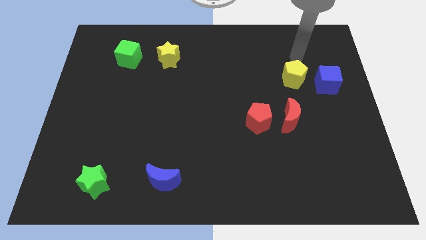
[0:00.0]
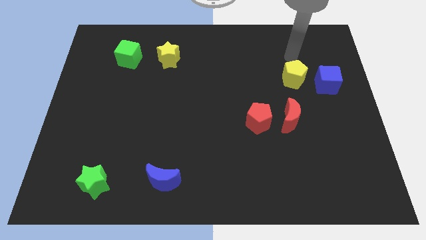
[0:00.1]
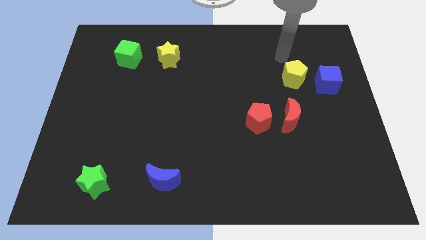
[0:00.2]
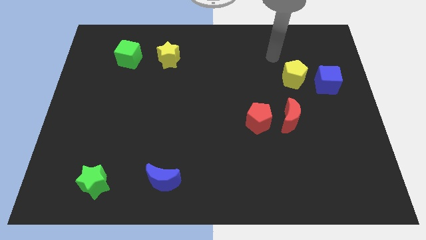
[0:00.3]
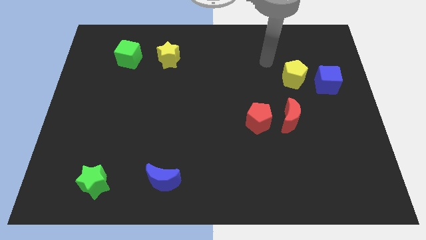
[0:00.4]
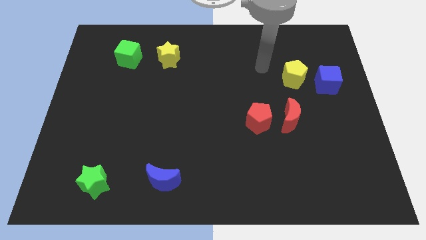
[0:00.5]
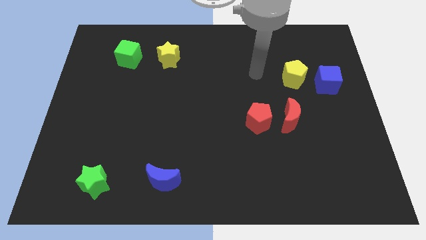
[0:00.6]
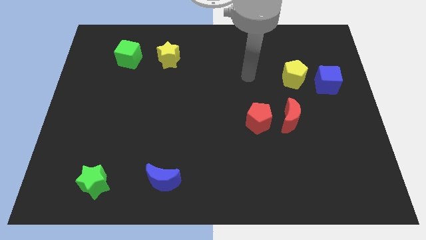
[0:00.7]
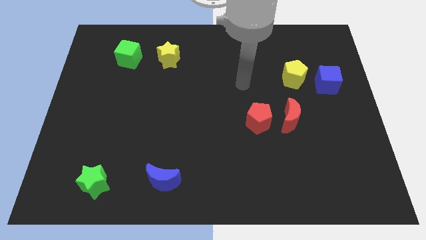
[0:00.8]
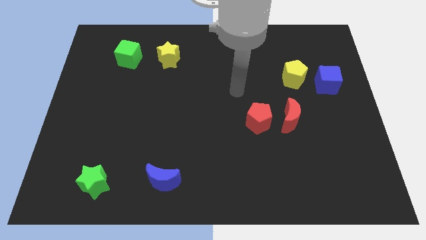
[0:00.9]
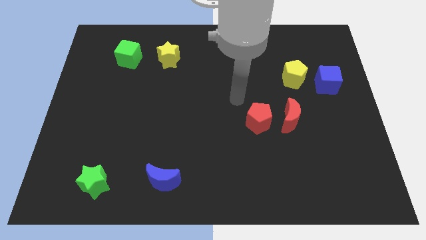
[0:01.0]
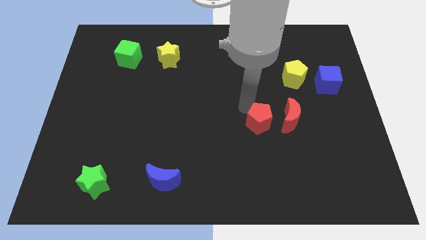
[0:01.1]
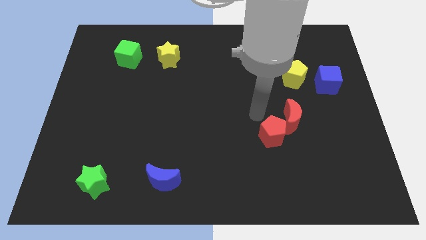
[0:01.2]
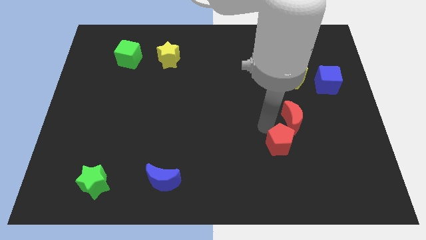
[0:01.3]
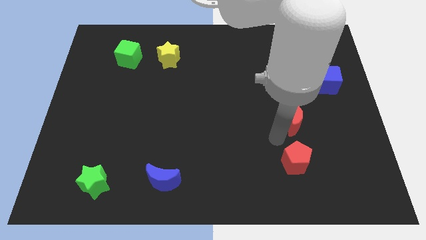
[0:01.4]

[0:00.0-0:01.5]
separate the red moon from the red pentagon

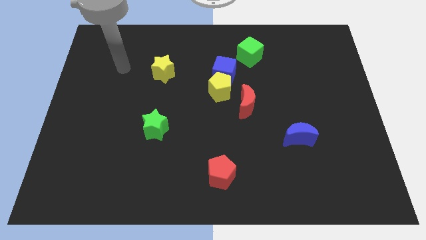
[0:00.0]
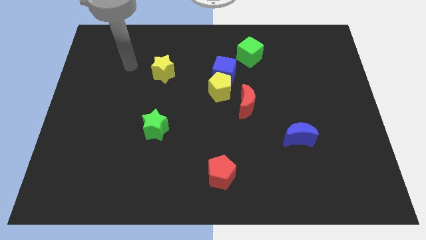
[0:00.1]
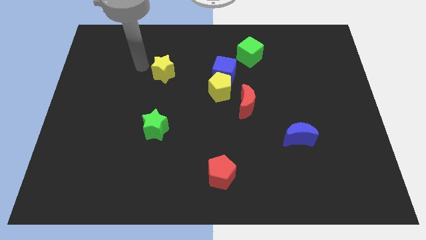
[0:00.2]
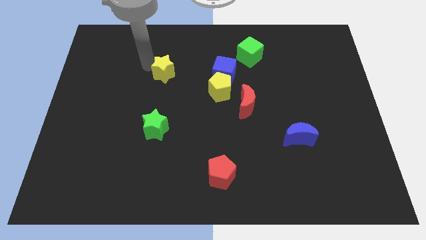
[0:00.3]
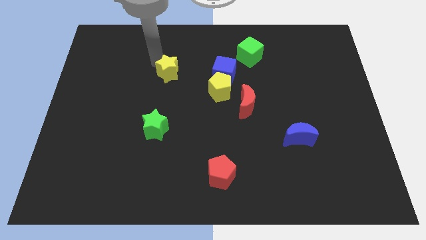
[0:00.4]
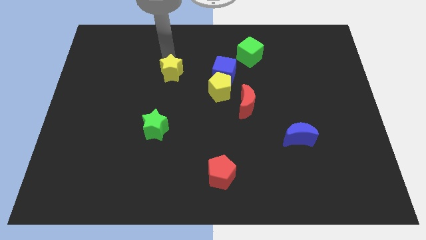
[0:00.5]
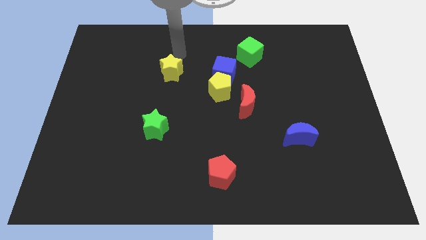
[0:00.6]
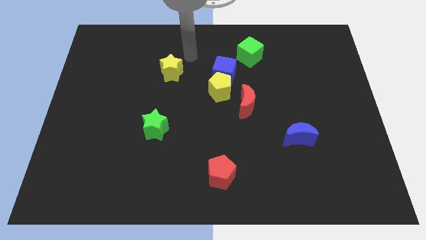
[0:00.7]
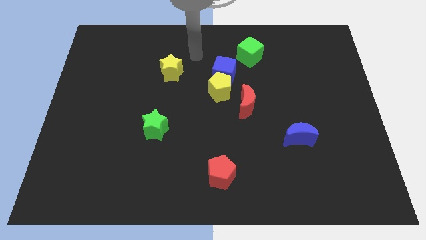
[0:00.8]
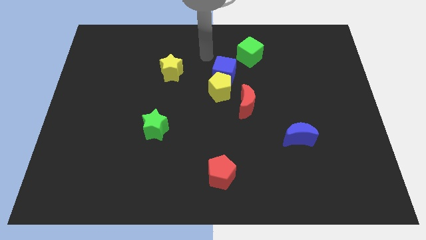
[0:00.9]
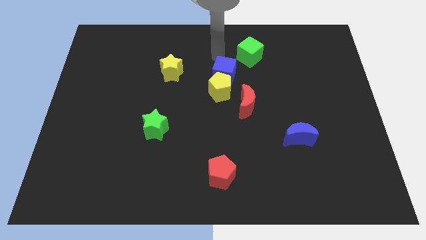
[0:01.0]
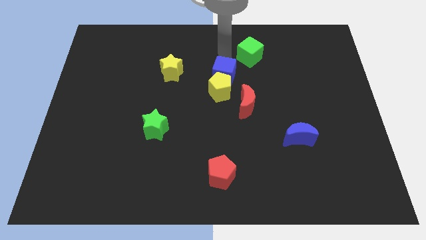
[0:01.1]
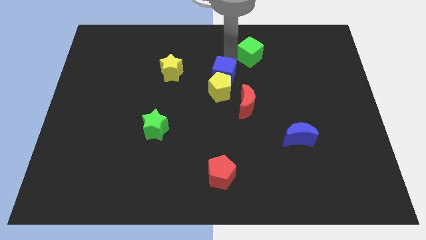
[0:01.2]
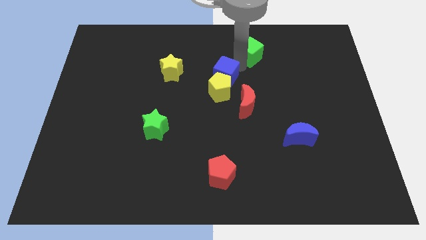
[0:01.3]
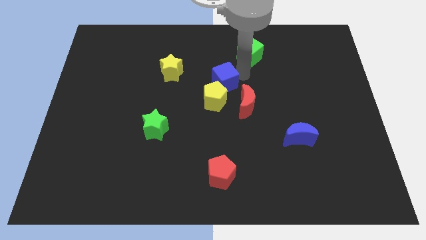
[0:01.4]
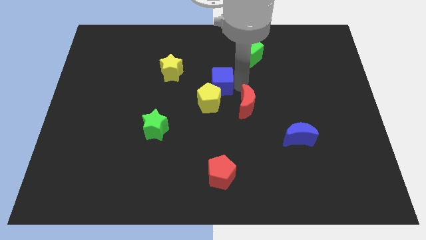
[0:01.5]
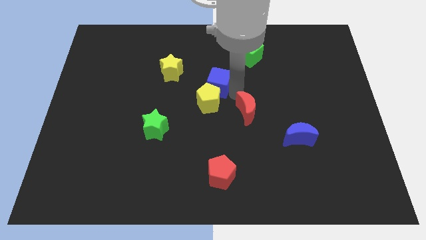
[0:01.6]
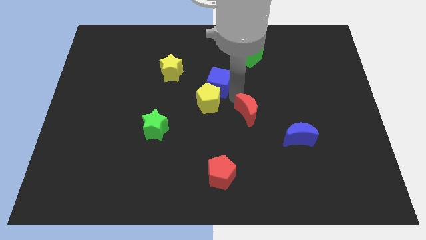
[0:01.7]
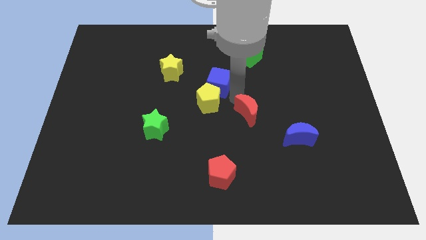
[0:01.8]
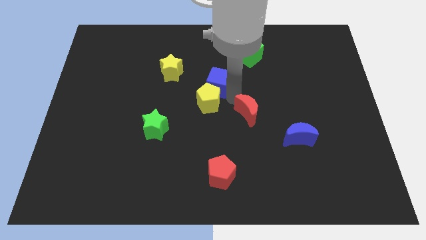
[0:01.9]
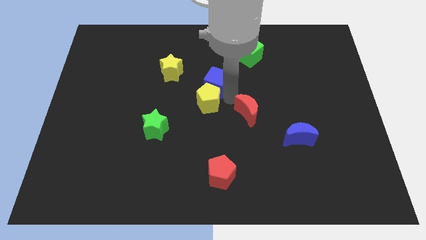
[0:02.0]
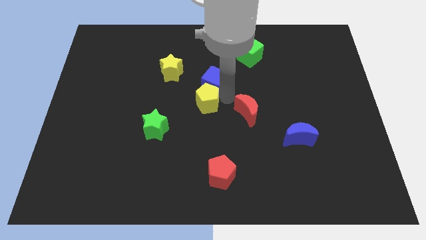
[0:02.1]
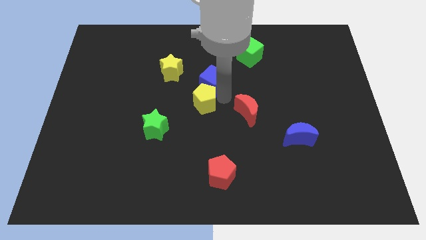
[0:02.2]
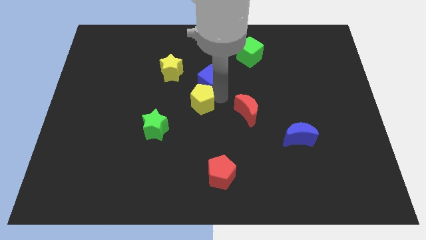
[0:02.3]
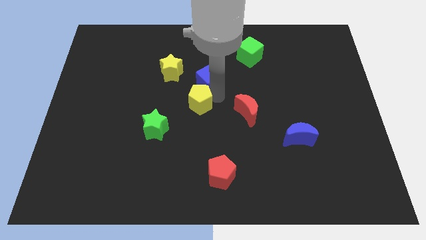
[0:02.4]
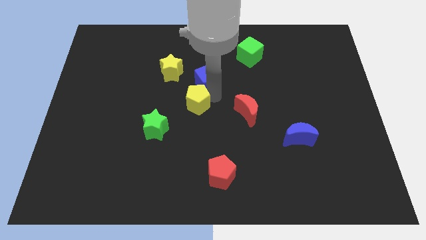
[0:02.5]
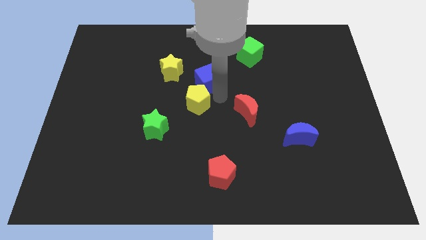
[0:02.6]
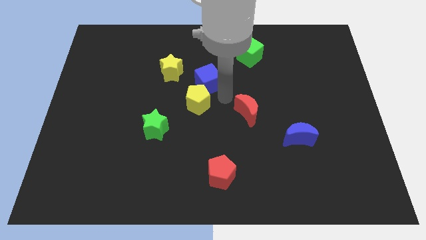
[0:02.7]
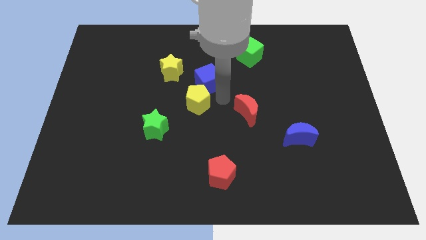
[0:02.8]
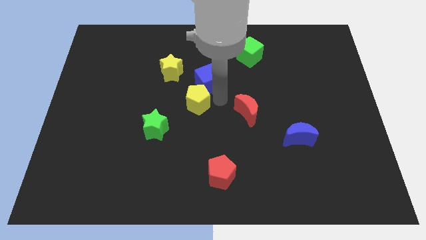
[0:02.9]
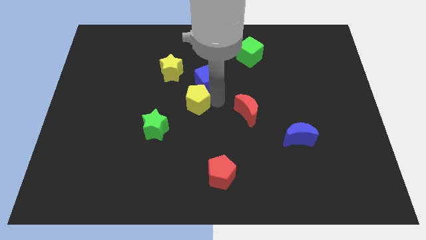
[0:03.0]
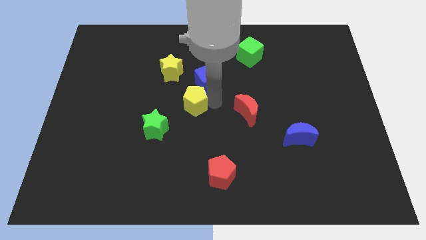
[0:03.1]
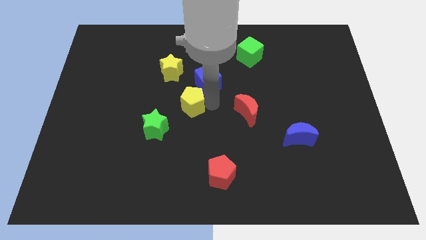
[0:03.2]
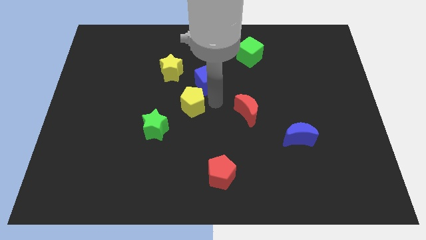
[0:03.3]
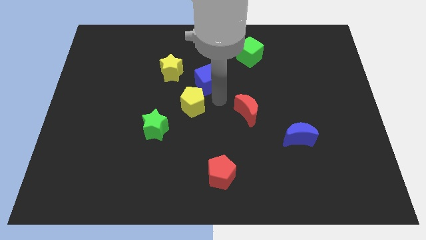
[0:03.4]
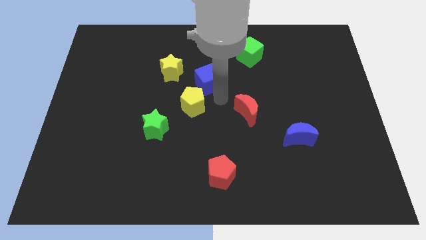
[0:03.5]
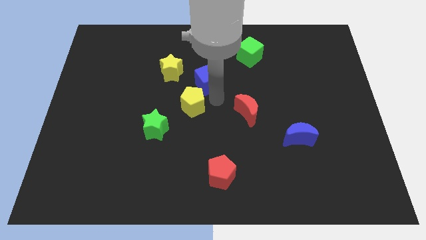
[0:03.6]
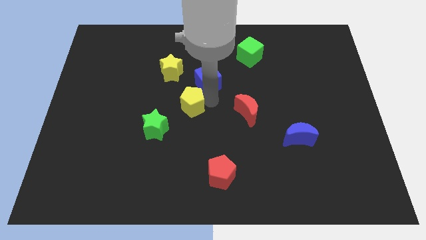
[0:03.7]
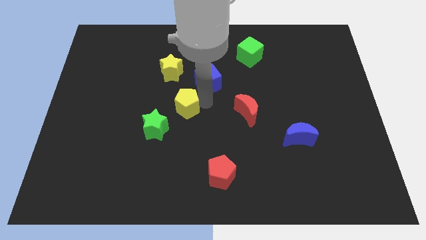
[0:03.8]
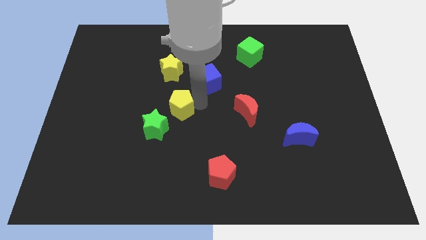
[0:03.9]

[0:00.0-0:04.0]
move the yellow pentagon away from the blue cube and red moon

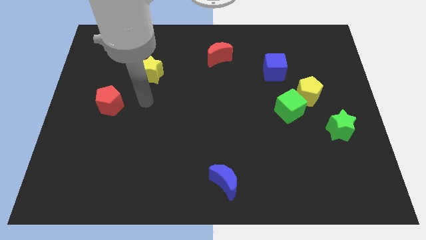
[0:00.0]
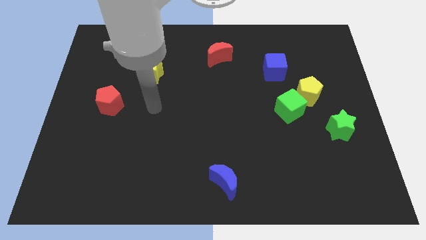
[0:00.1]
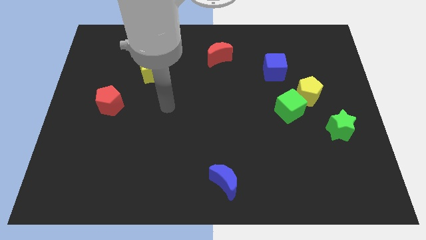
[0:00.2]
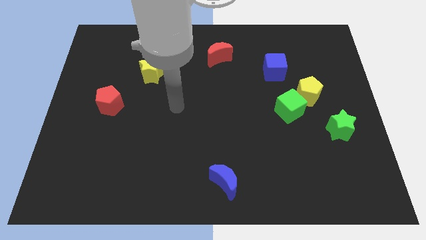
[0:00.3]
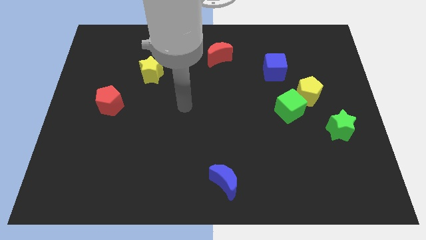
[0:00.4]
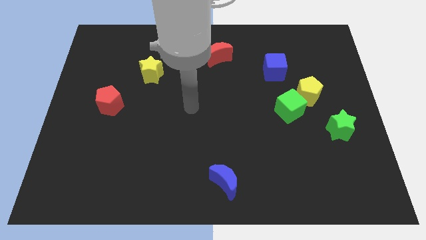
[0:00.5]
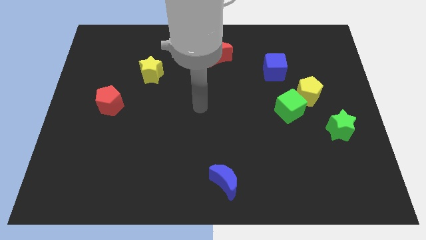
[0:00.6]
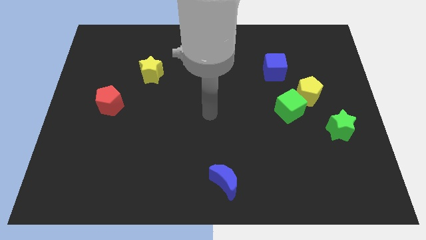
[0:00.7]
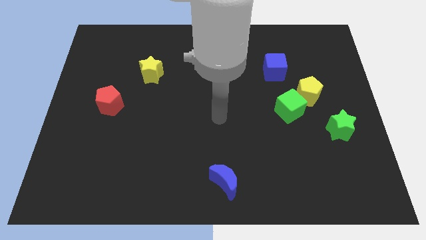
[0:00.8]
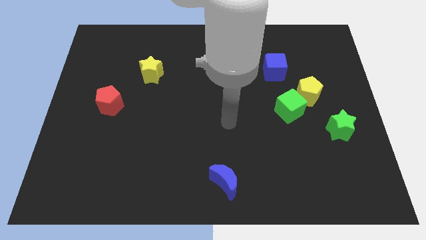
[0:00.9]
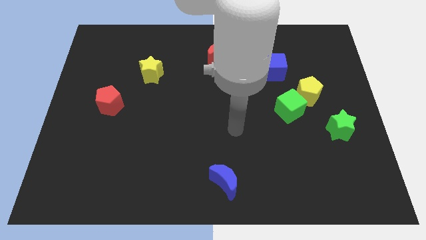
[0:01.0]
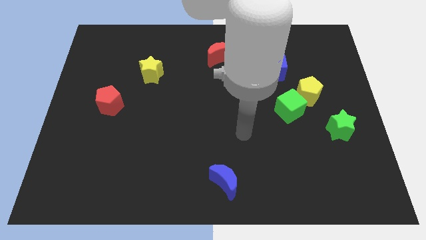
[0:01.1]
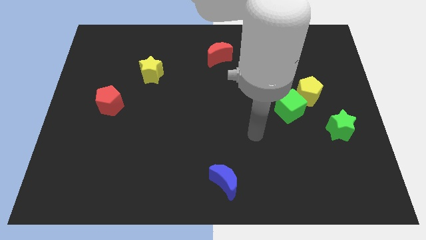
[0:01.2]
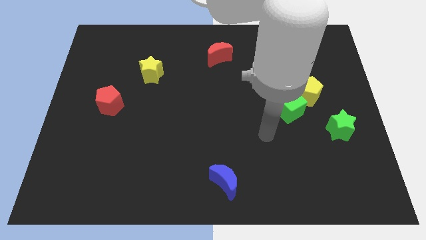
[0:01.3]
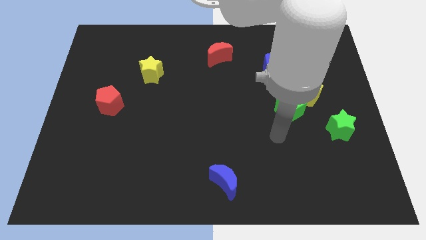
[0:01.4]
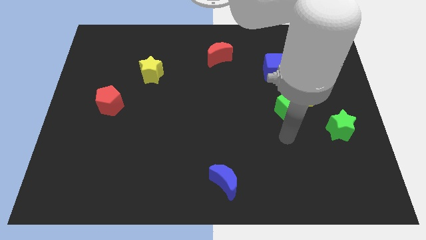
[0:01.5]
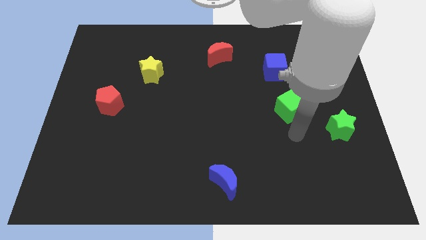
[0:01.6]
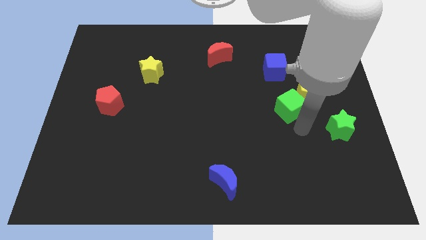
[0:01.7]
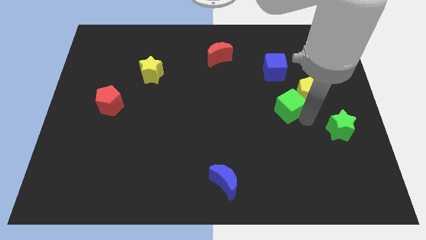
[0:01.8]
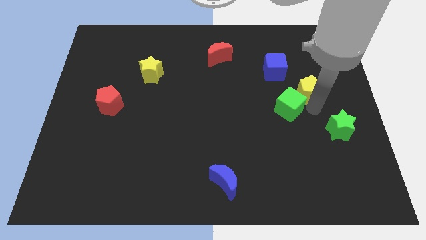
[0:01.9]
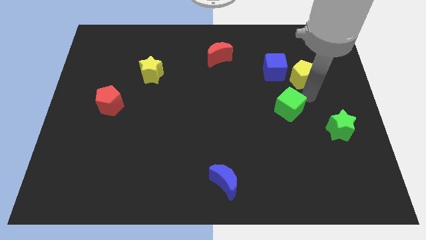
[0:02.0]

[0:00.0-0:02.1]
separate the green cube from the yellow pentagon

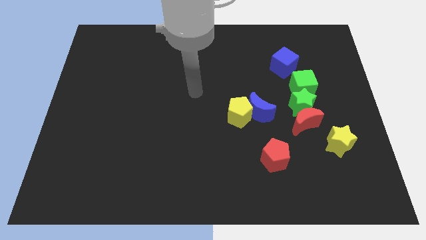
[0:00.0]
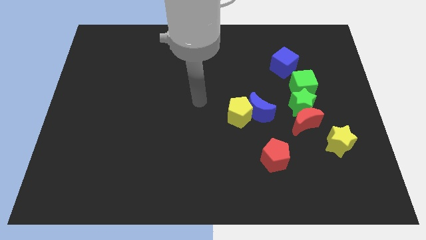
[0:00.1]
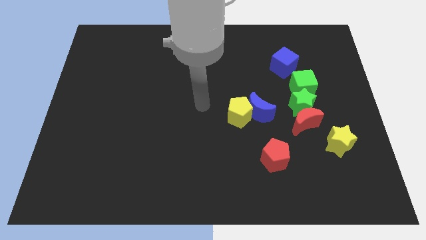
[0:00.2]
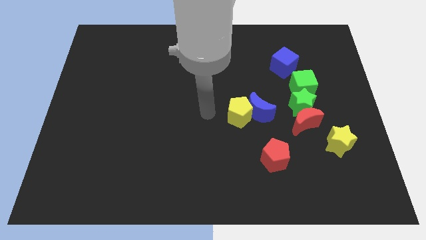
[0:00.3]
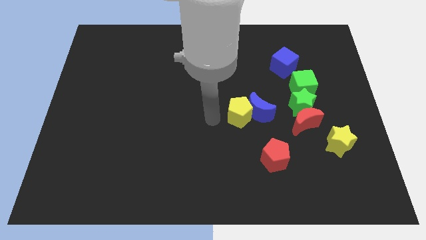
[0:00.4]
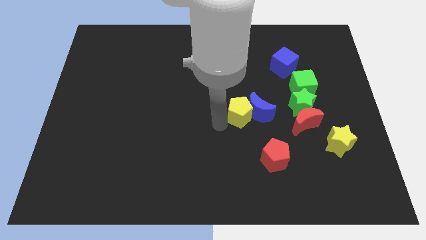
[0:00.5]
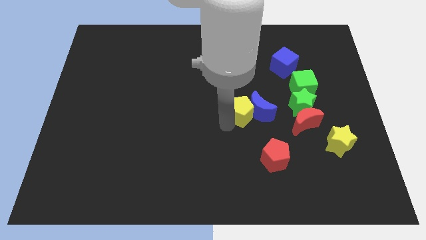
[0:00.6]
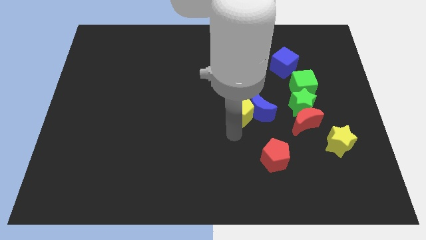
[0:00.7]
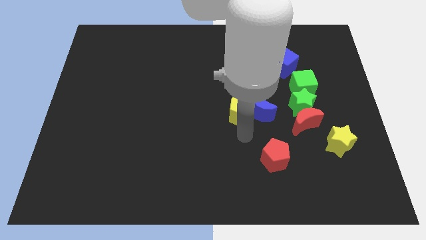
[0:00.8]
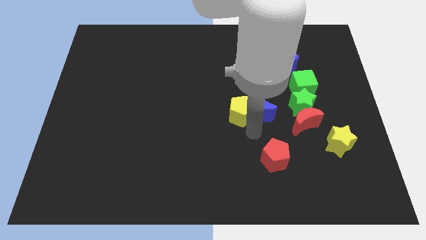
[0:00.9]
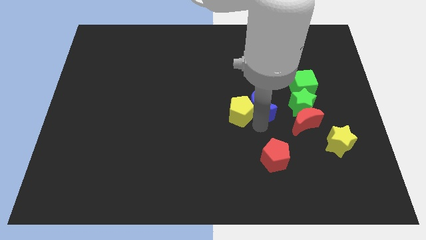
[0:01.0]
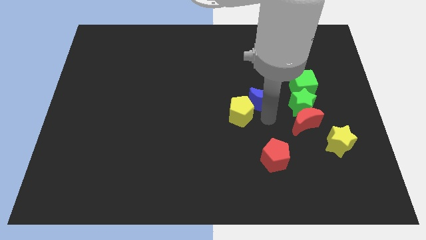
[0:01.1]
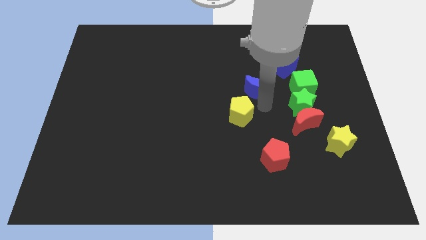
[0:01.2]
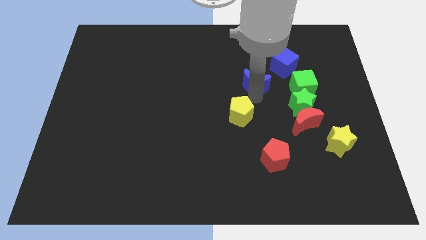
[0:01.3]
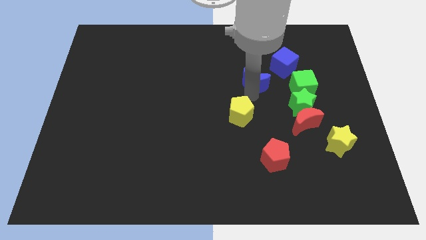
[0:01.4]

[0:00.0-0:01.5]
separate the yellow pentagon from the blue moon

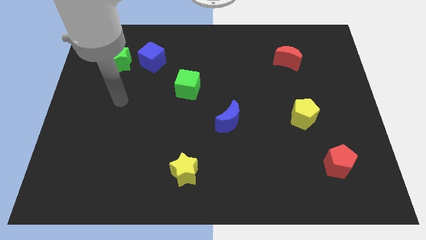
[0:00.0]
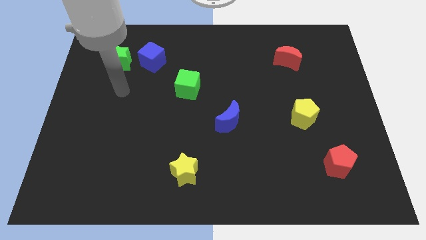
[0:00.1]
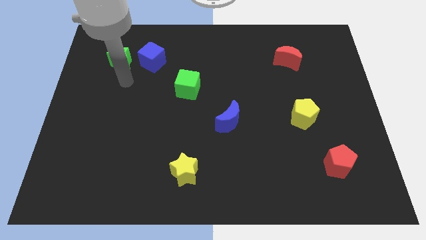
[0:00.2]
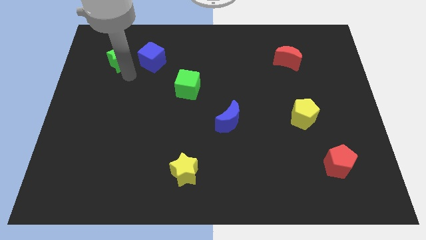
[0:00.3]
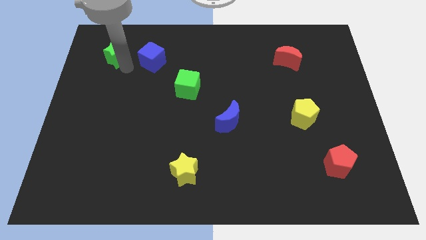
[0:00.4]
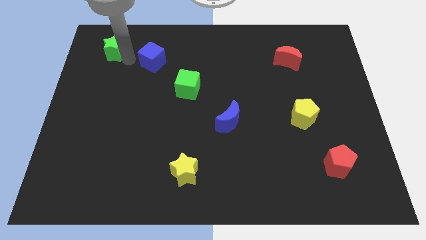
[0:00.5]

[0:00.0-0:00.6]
separate the blue cube from the green star
